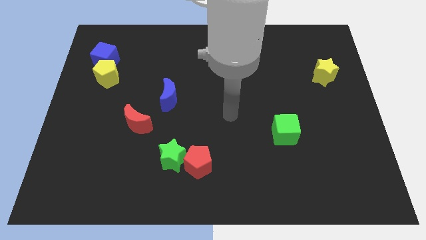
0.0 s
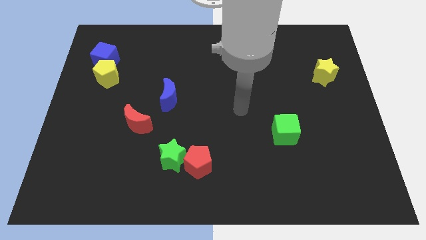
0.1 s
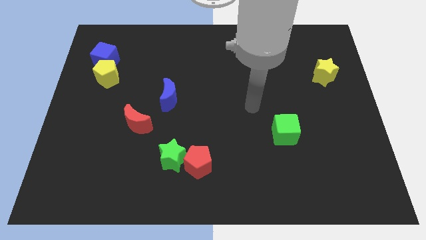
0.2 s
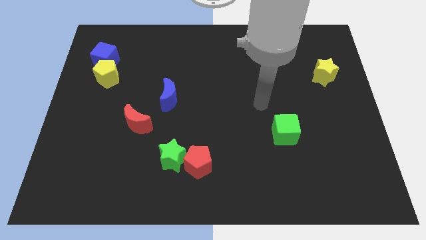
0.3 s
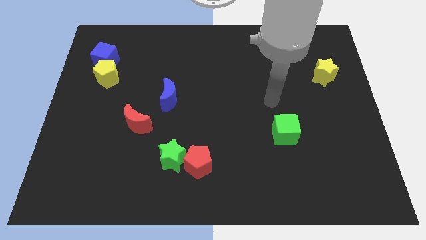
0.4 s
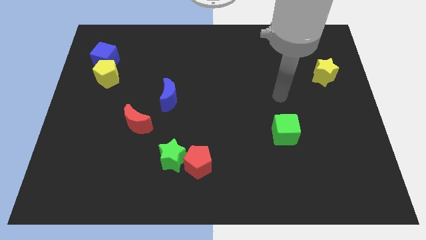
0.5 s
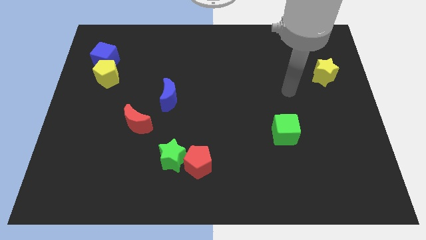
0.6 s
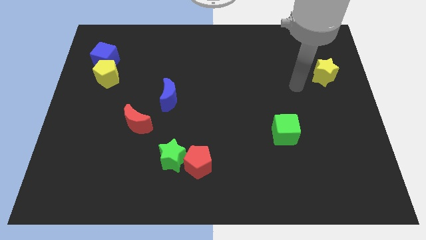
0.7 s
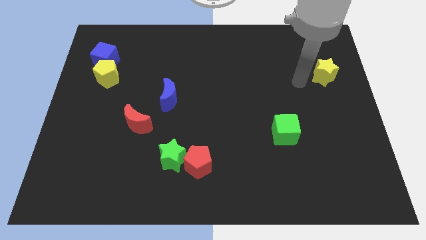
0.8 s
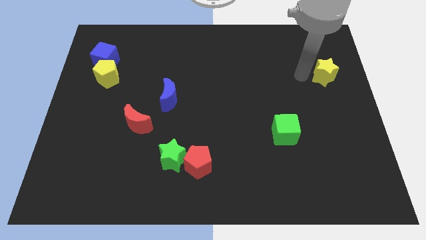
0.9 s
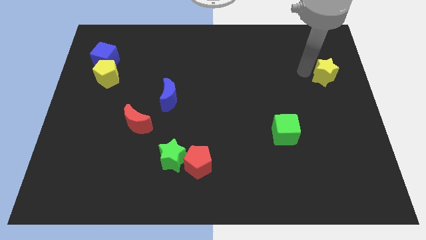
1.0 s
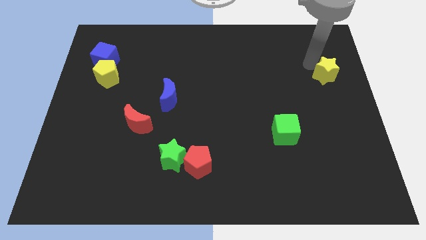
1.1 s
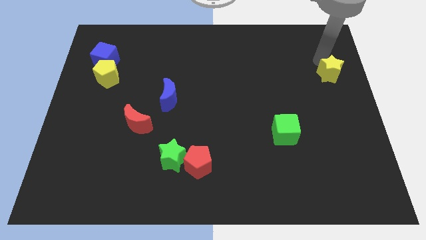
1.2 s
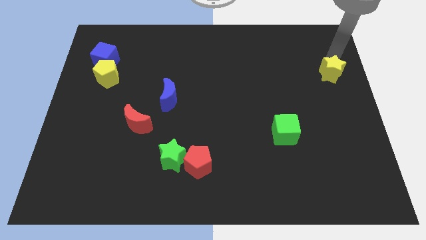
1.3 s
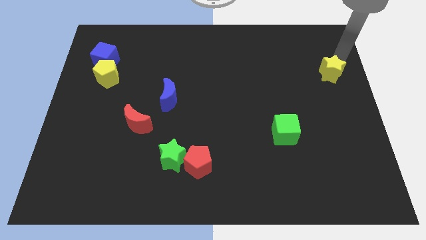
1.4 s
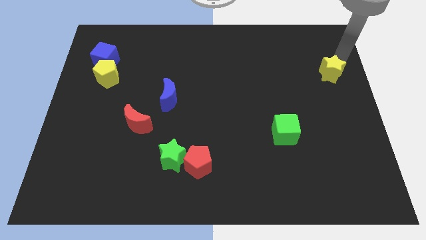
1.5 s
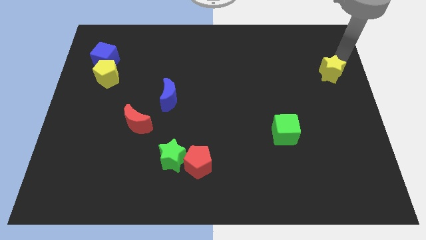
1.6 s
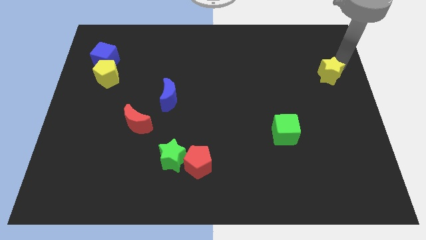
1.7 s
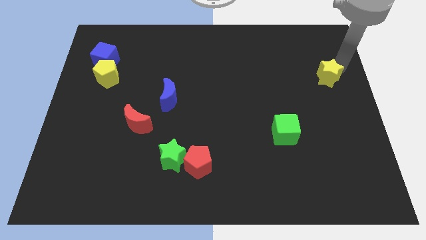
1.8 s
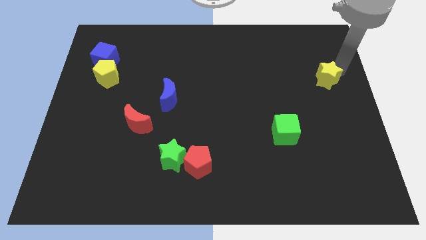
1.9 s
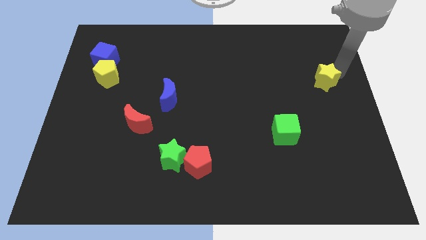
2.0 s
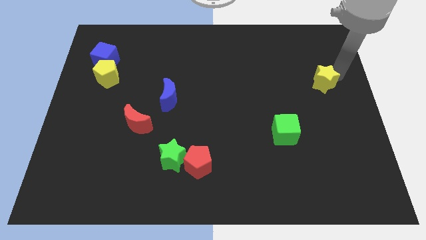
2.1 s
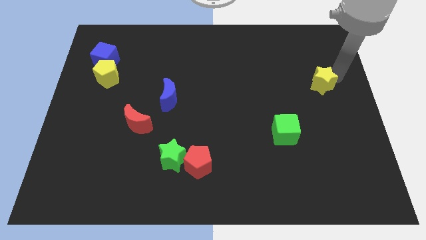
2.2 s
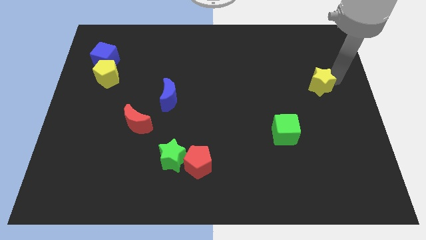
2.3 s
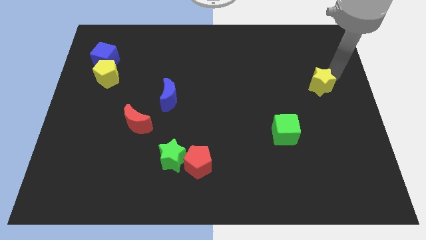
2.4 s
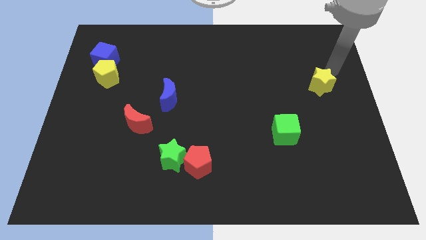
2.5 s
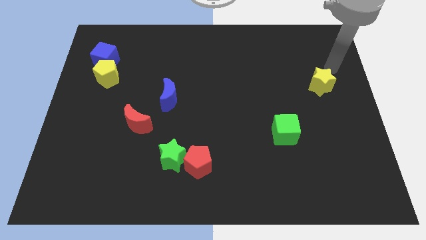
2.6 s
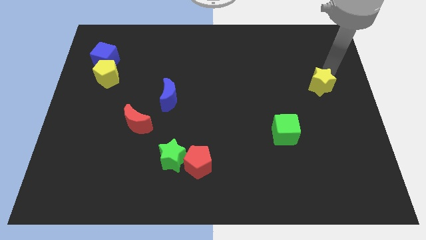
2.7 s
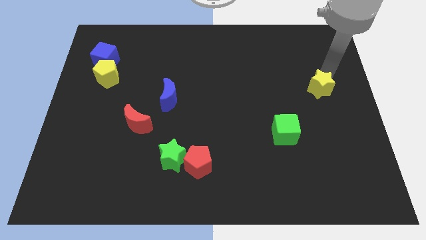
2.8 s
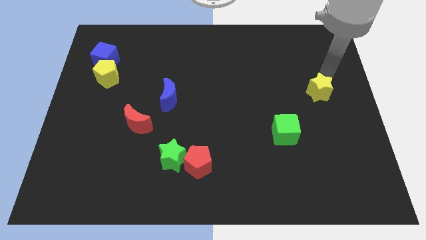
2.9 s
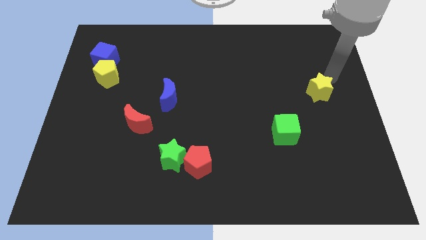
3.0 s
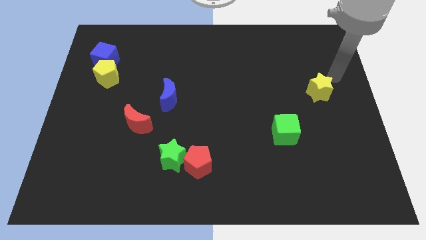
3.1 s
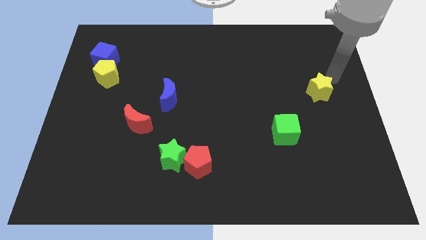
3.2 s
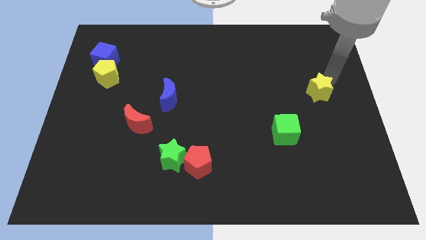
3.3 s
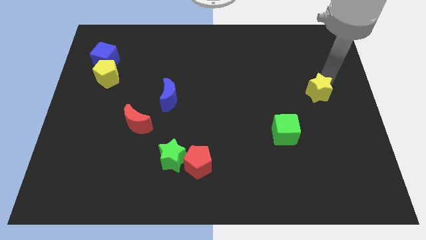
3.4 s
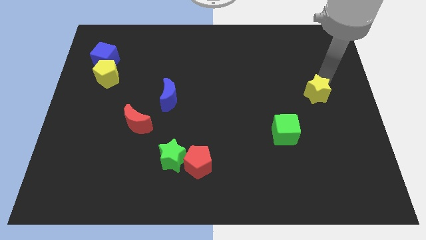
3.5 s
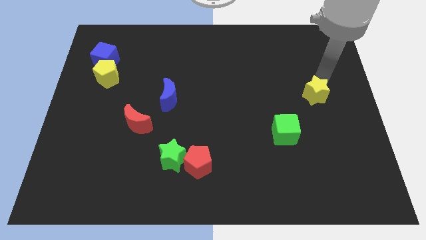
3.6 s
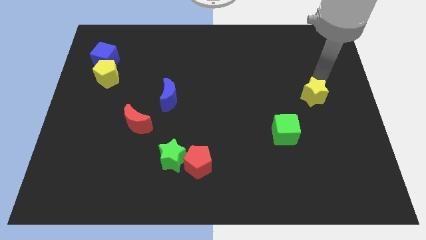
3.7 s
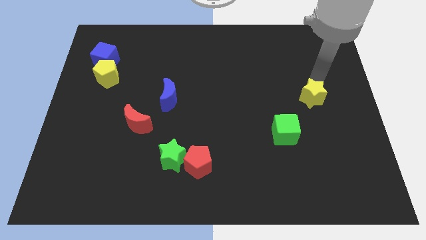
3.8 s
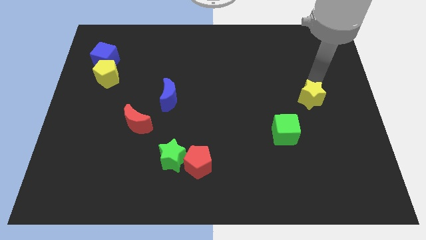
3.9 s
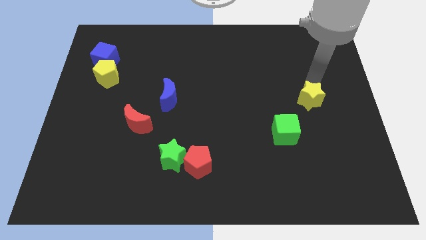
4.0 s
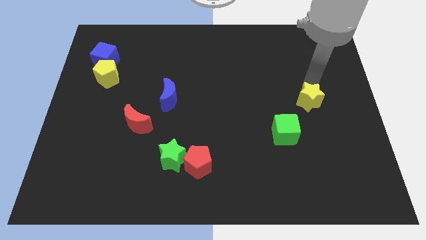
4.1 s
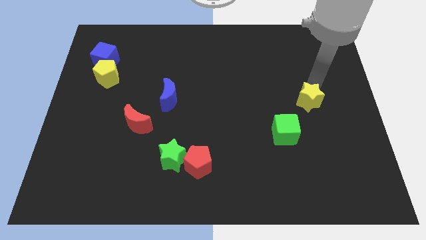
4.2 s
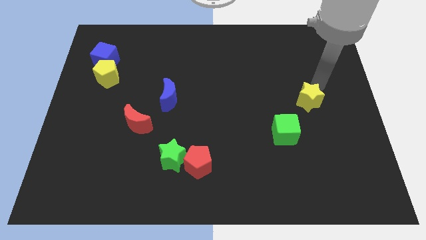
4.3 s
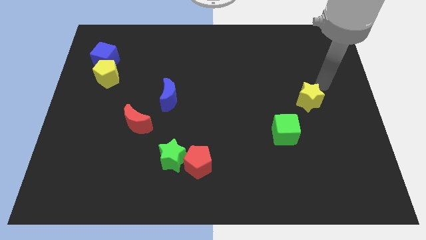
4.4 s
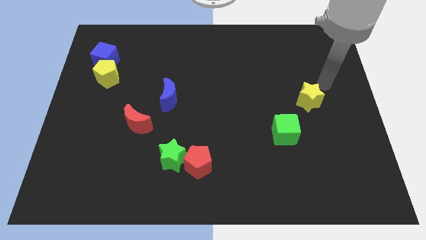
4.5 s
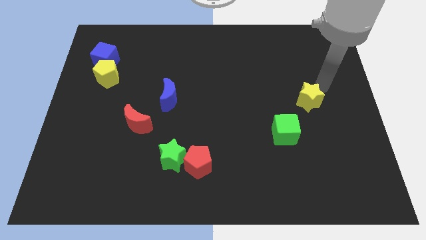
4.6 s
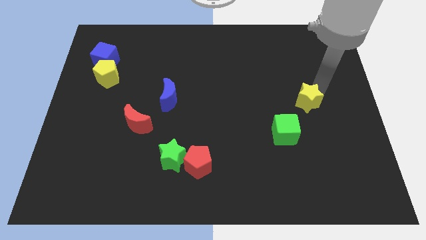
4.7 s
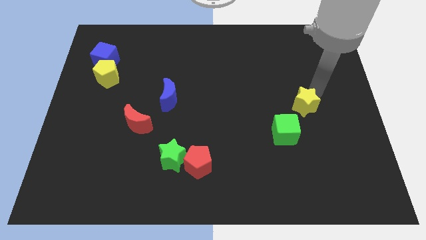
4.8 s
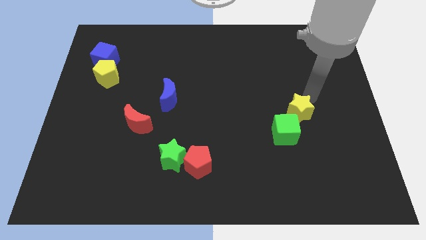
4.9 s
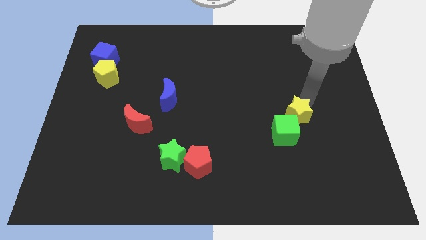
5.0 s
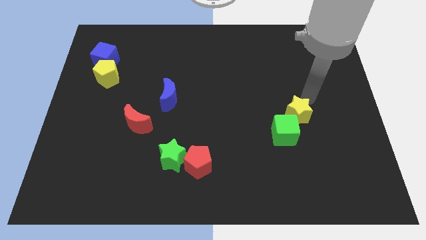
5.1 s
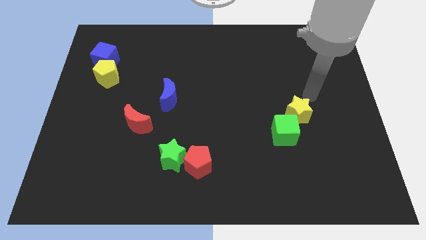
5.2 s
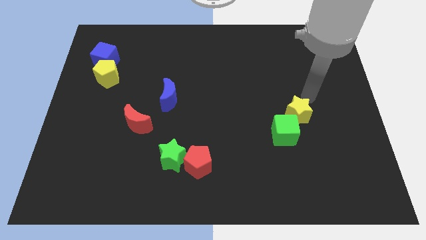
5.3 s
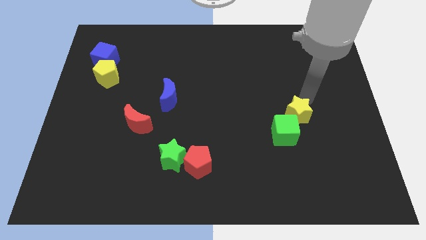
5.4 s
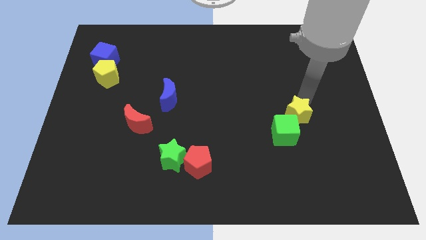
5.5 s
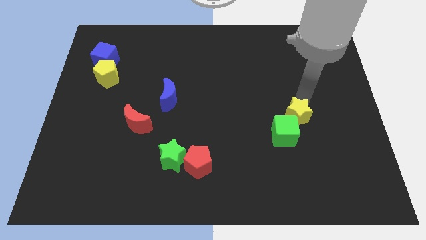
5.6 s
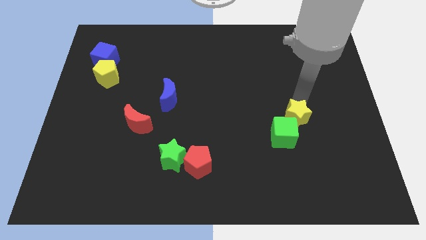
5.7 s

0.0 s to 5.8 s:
move the yellow star next to the green cube

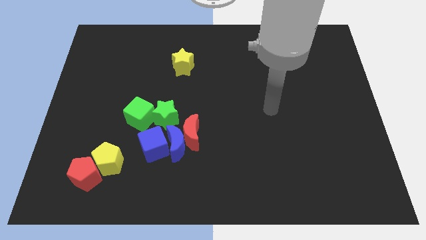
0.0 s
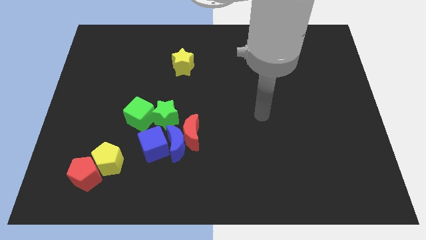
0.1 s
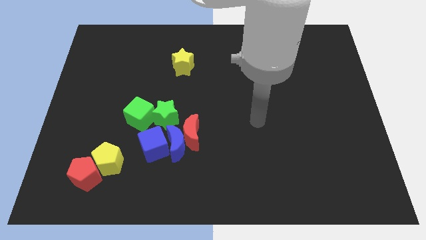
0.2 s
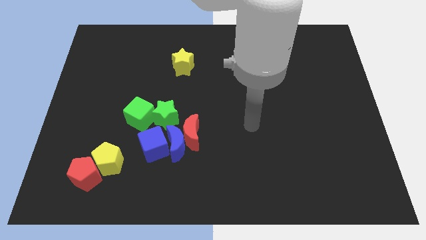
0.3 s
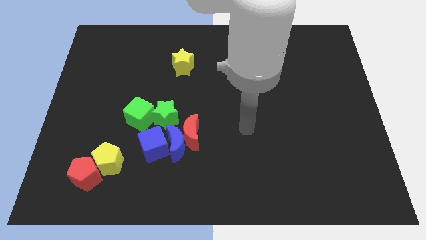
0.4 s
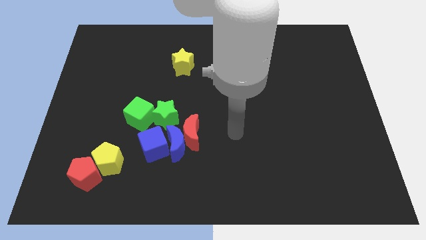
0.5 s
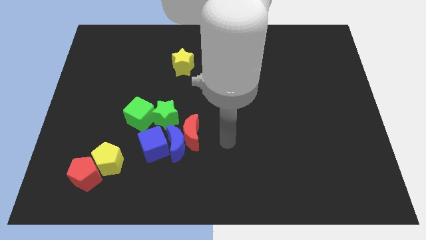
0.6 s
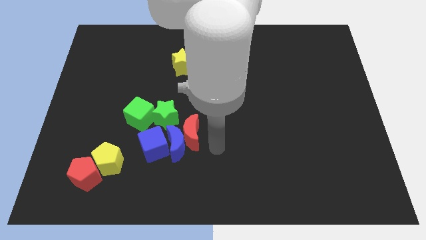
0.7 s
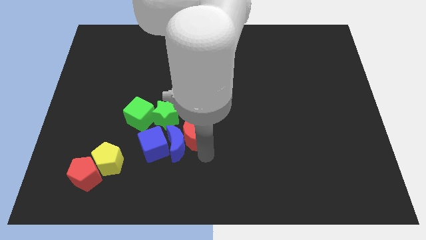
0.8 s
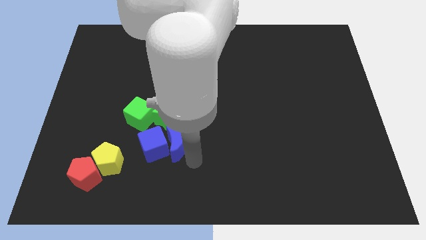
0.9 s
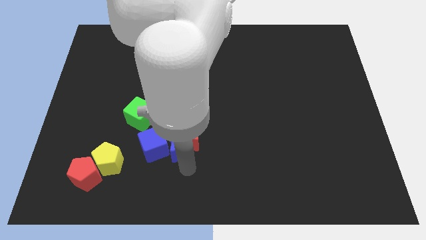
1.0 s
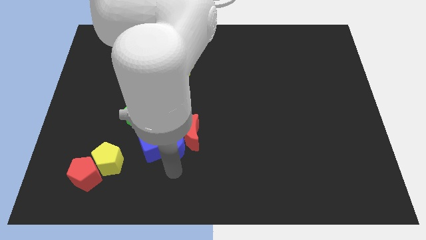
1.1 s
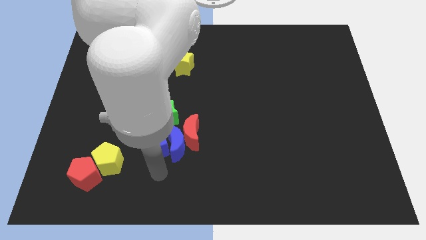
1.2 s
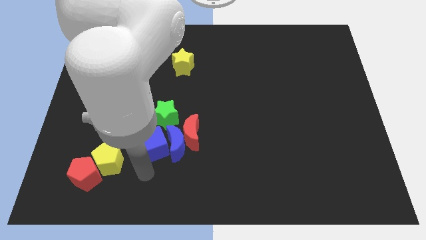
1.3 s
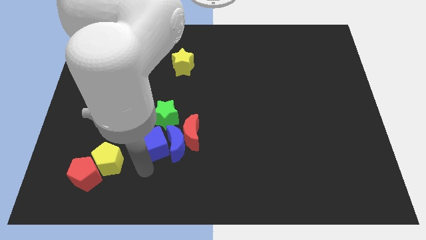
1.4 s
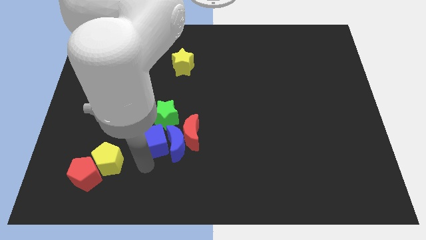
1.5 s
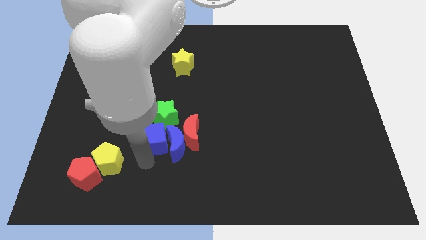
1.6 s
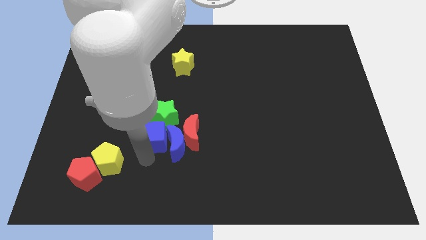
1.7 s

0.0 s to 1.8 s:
put the blue cube to the green star
